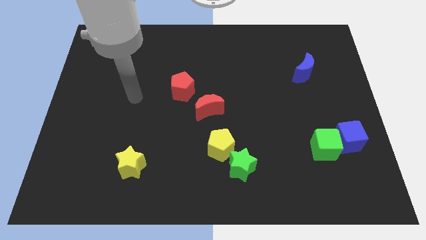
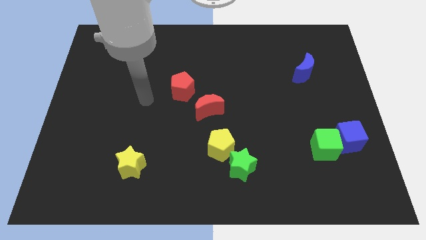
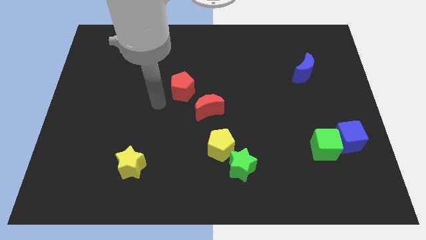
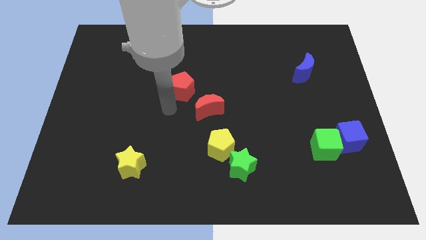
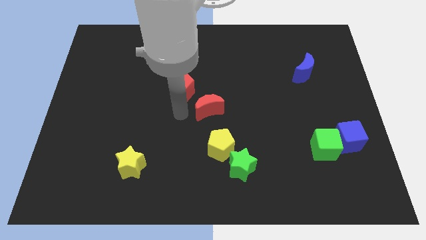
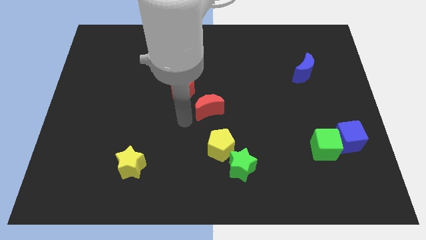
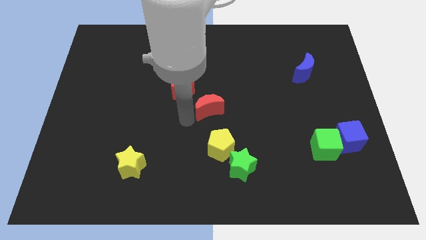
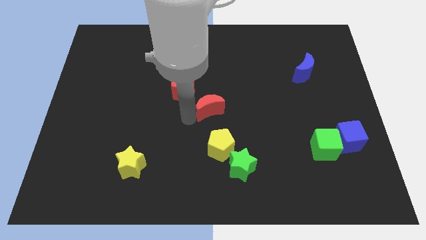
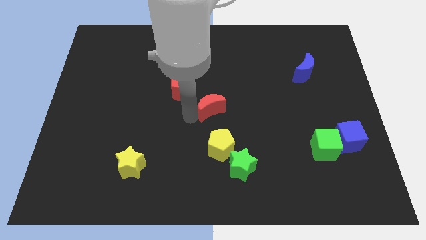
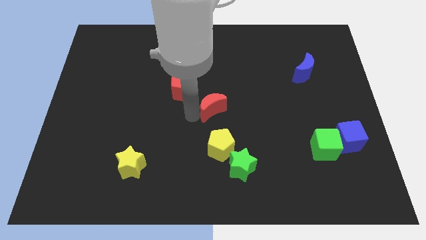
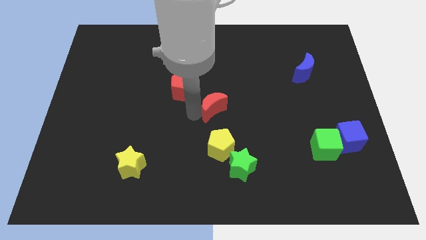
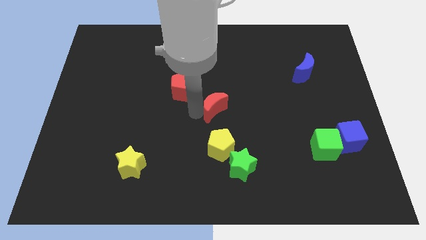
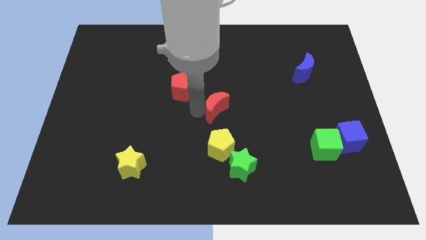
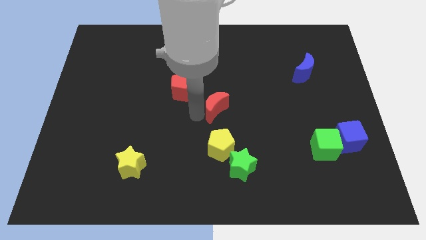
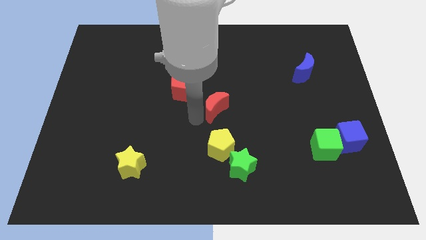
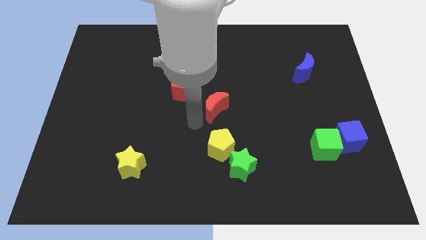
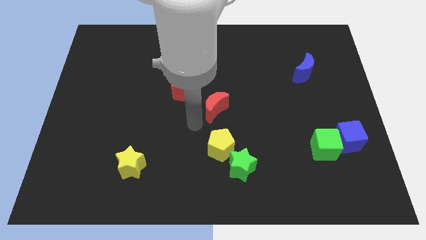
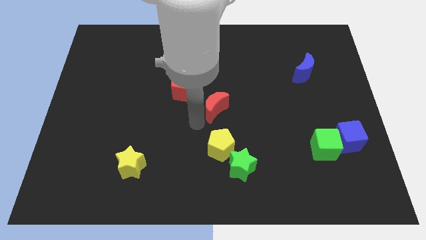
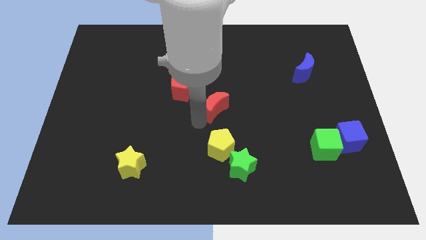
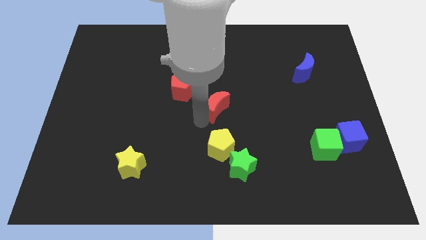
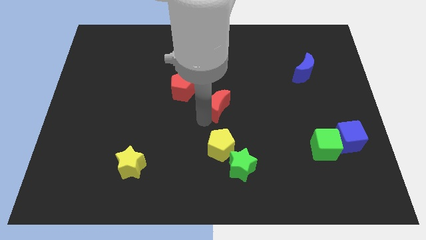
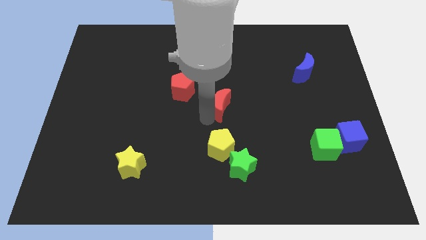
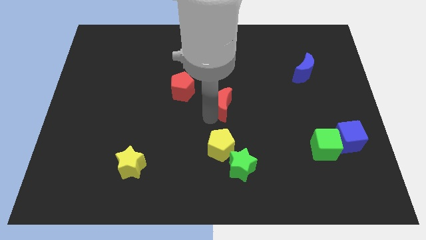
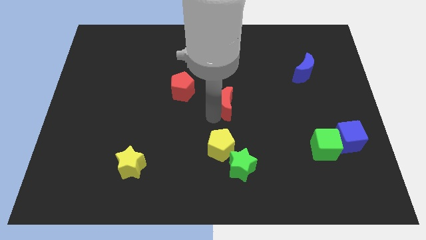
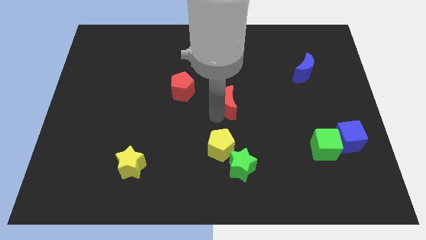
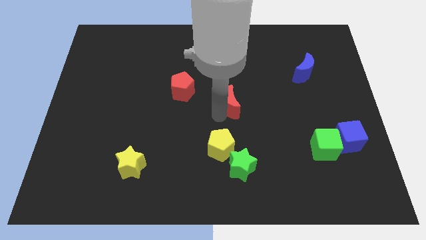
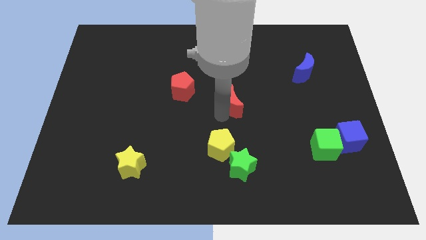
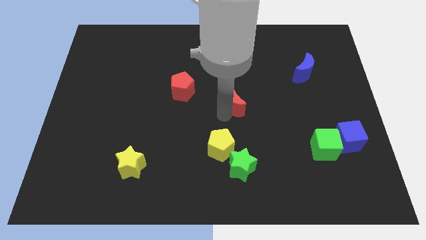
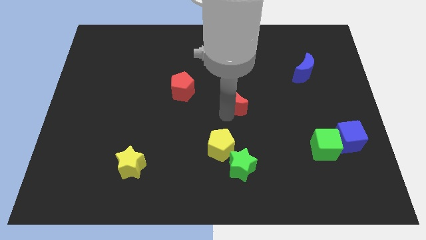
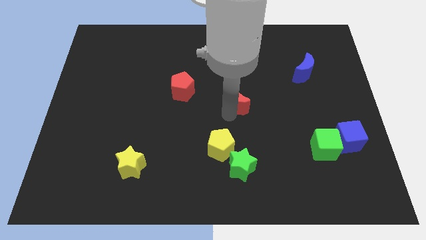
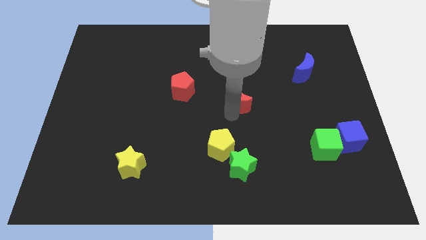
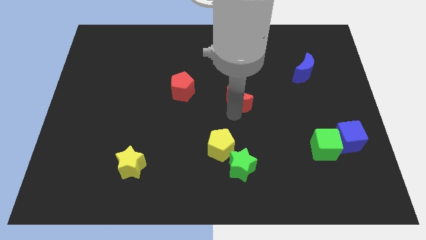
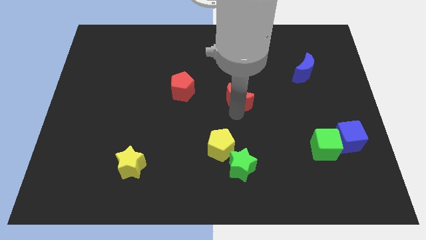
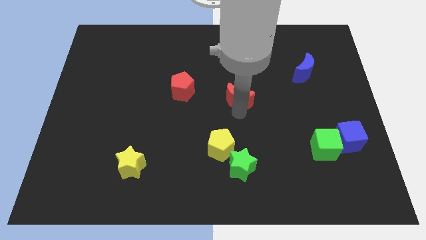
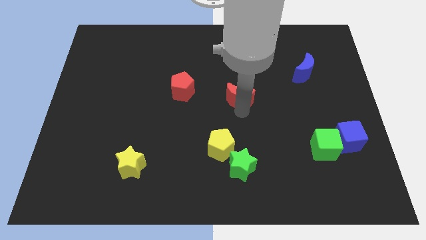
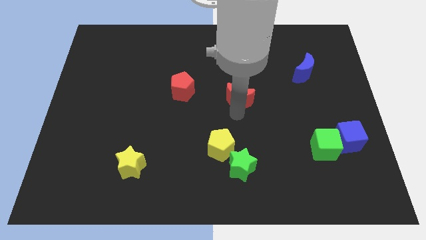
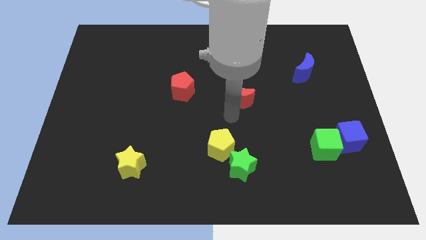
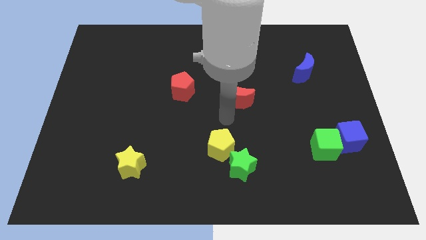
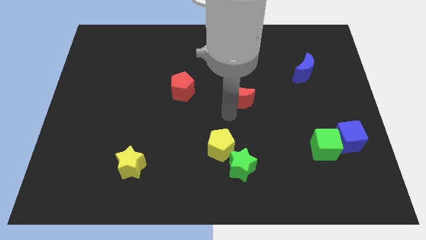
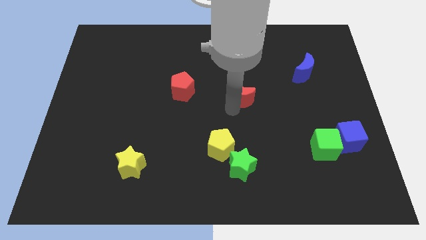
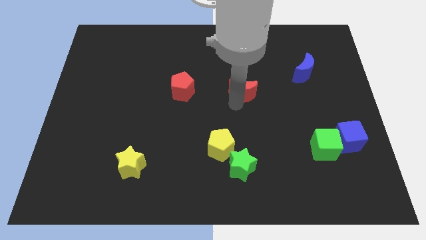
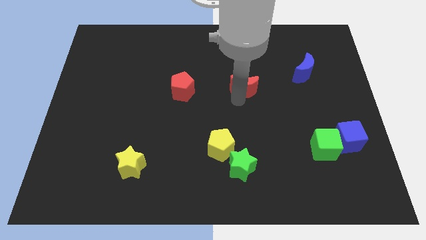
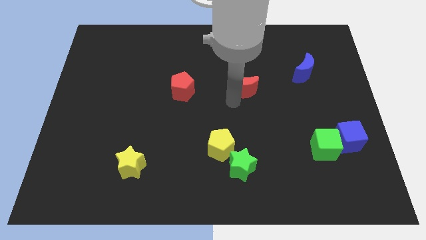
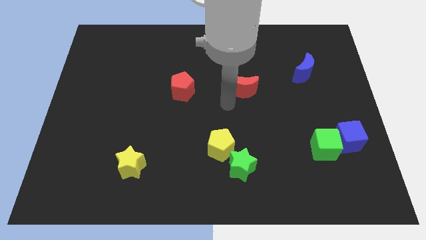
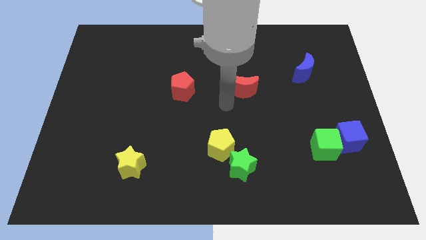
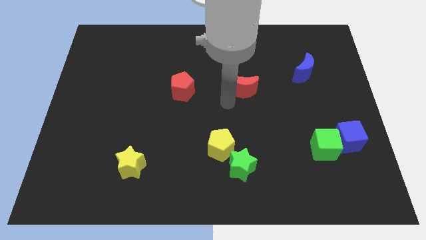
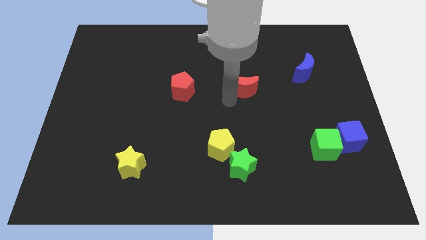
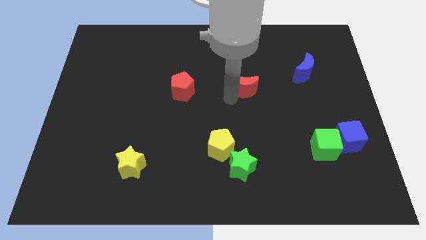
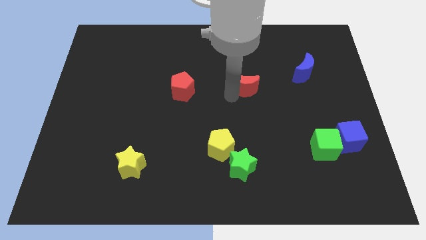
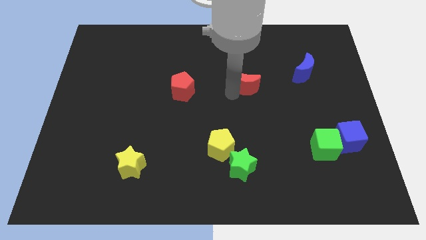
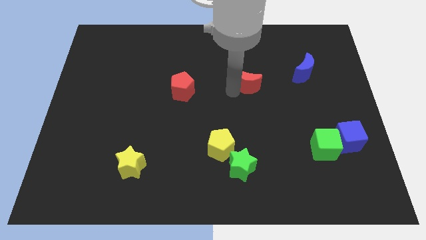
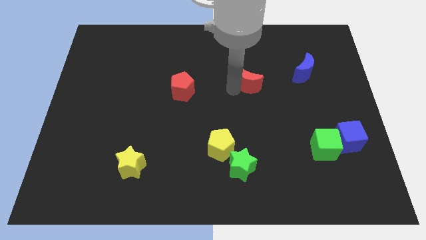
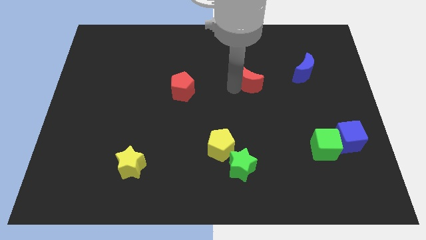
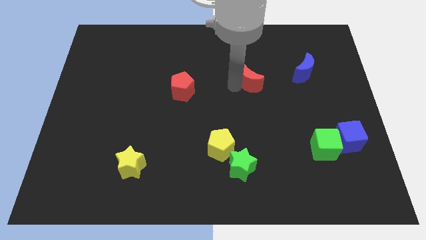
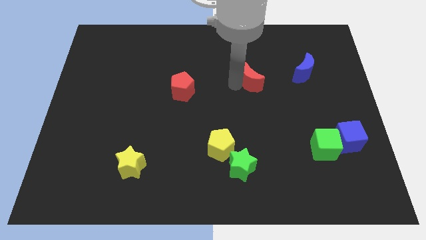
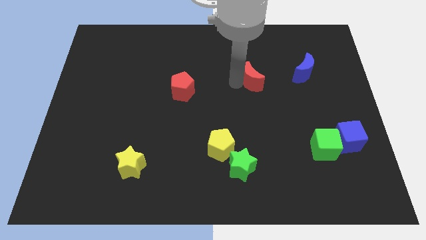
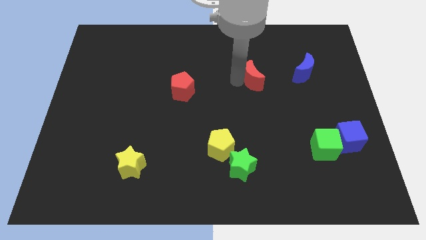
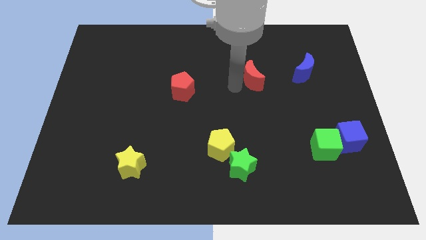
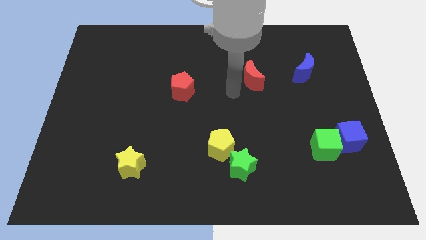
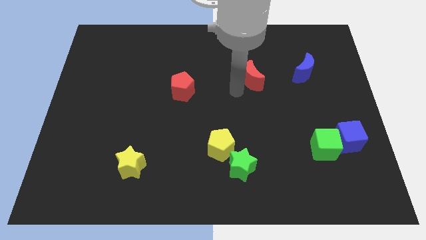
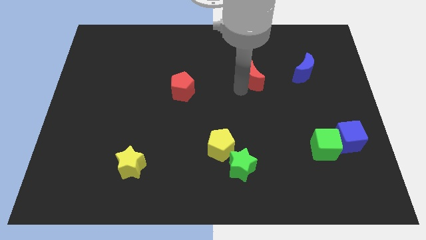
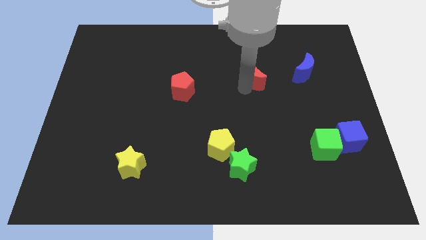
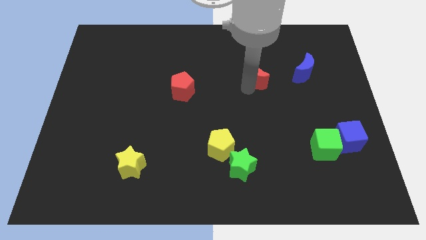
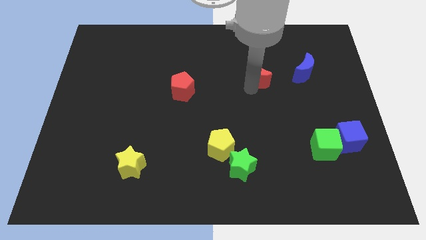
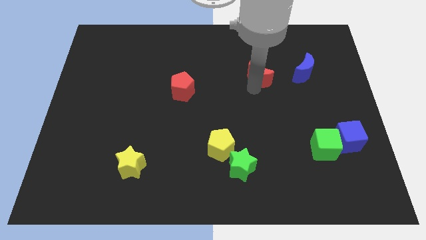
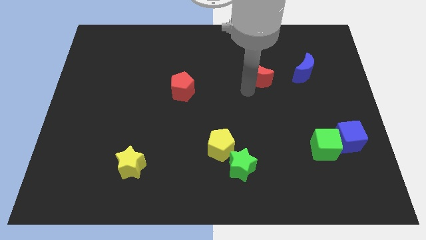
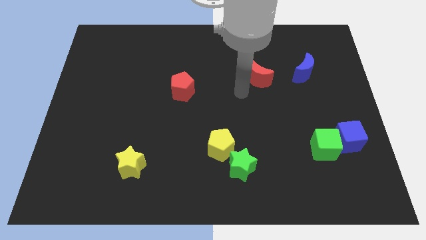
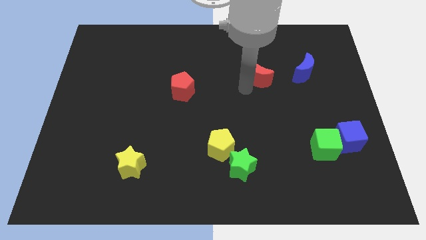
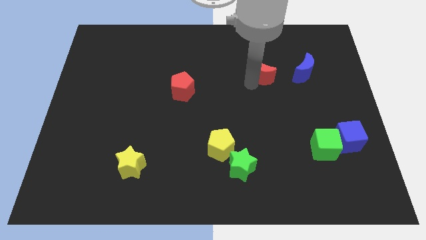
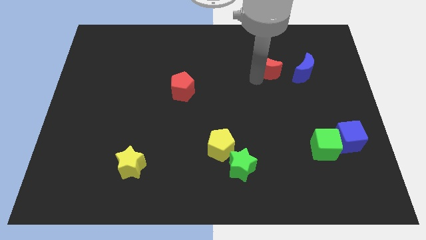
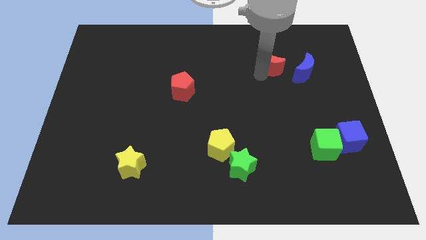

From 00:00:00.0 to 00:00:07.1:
put the red moon to the top left side of the blue moon
